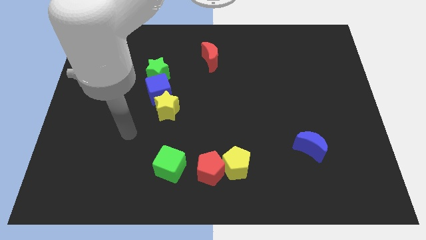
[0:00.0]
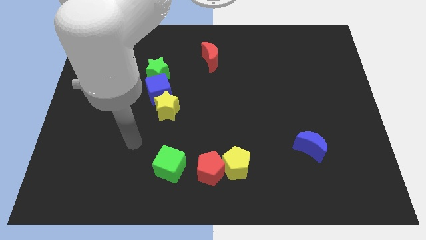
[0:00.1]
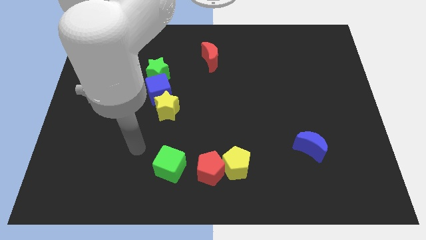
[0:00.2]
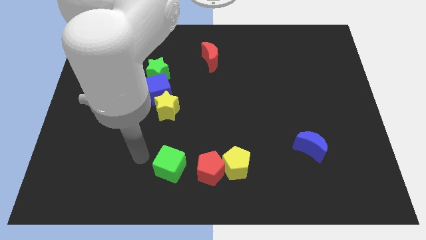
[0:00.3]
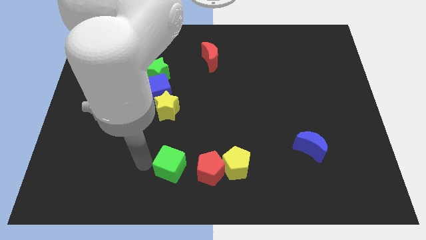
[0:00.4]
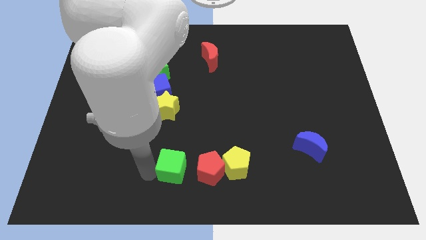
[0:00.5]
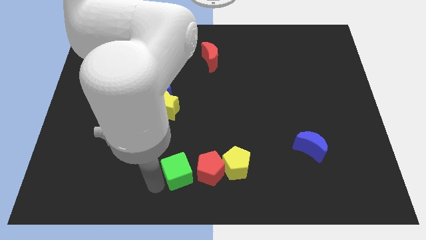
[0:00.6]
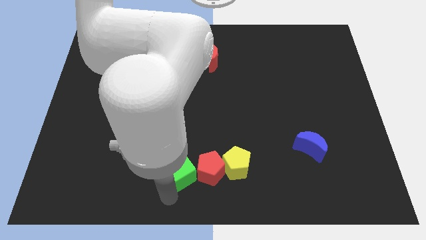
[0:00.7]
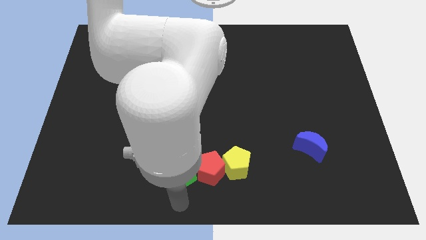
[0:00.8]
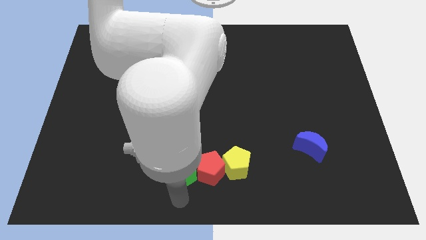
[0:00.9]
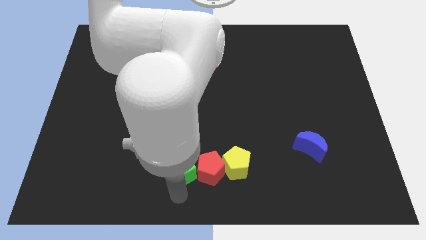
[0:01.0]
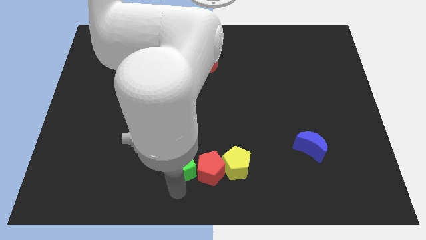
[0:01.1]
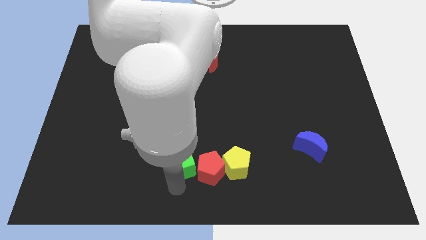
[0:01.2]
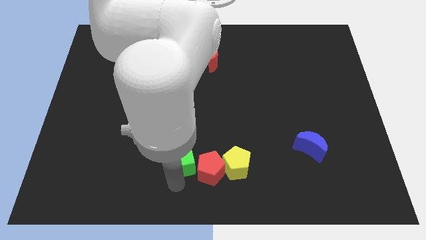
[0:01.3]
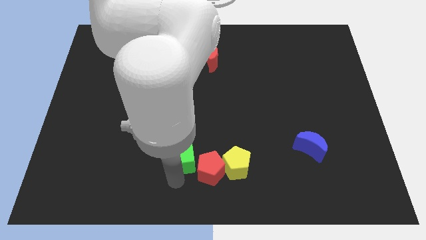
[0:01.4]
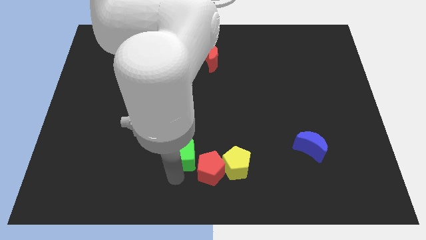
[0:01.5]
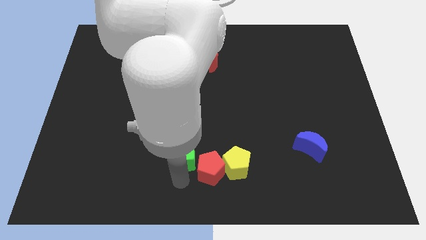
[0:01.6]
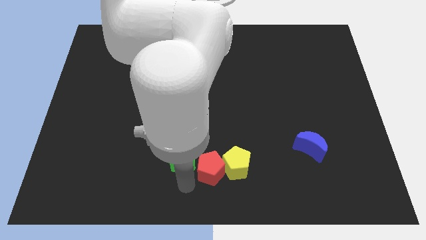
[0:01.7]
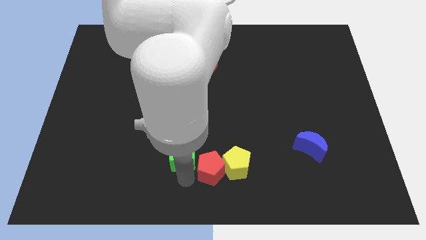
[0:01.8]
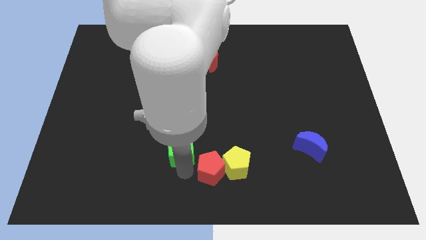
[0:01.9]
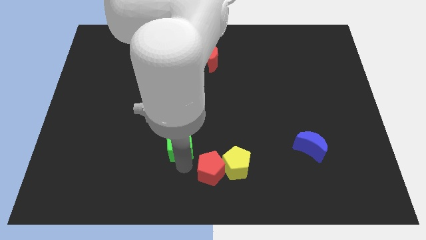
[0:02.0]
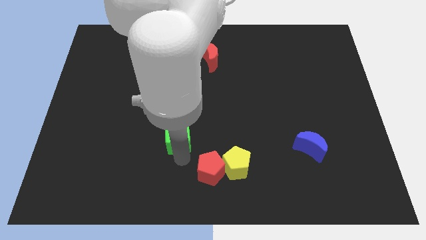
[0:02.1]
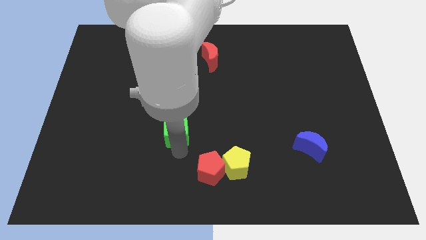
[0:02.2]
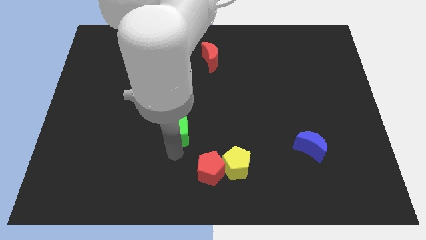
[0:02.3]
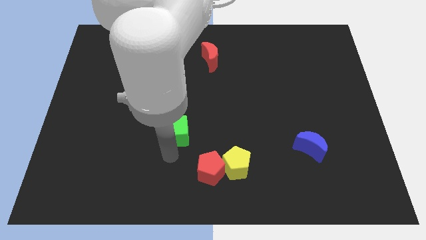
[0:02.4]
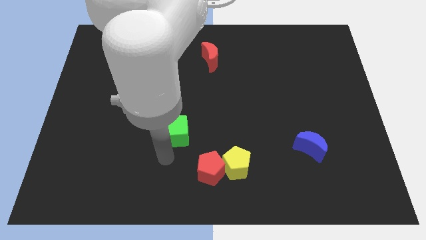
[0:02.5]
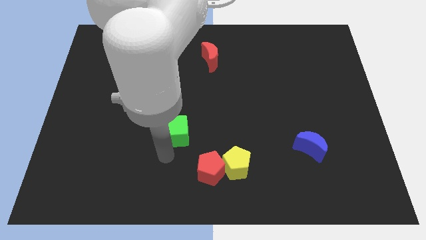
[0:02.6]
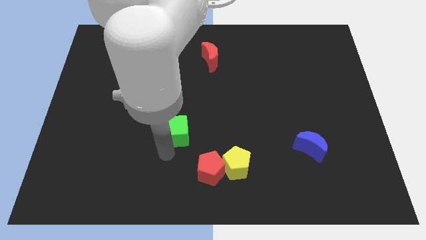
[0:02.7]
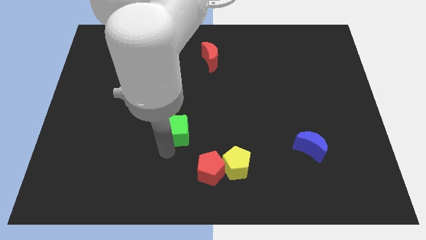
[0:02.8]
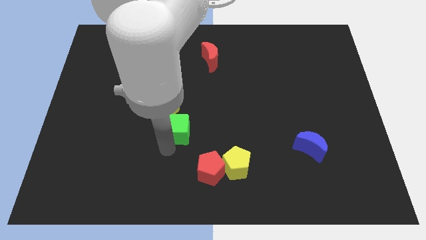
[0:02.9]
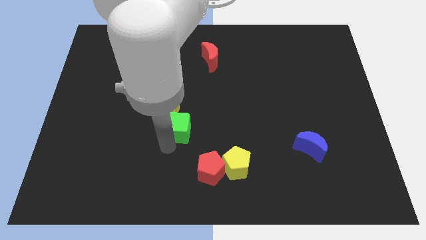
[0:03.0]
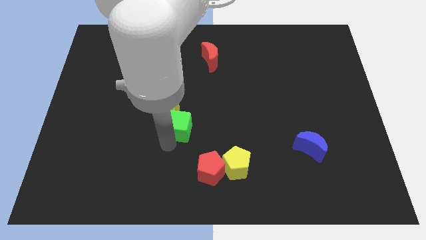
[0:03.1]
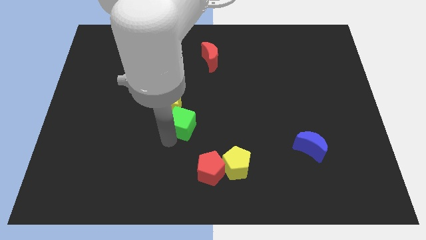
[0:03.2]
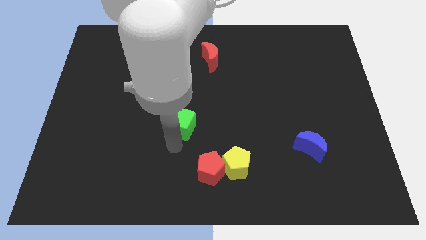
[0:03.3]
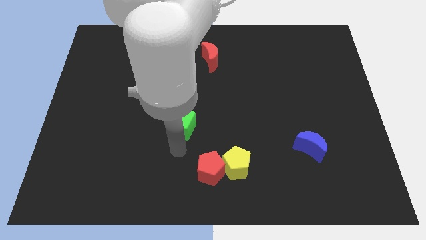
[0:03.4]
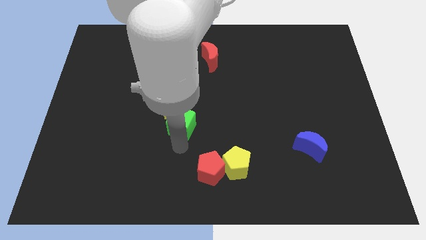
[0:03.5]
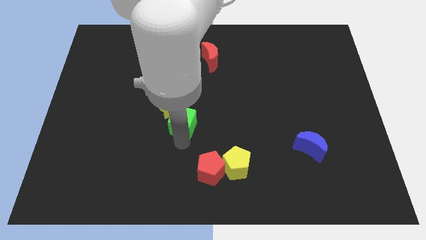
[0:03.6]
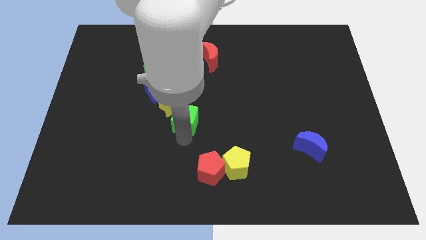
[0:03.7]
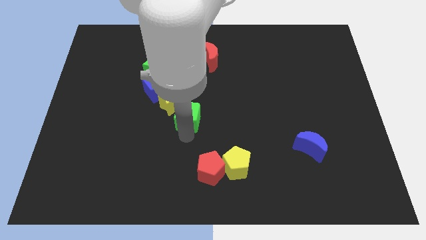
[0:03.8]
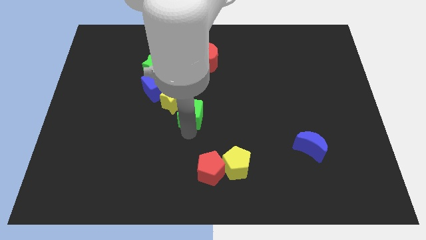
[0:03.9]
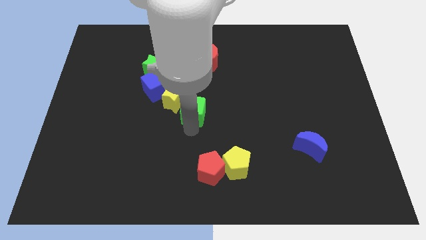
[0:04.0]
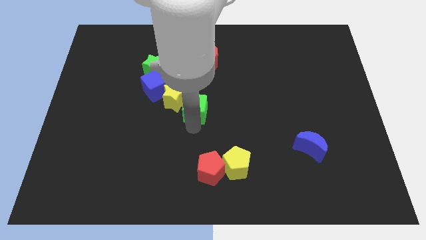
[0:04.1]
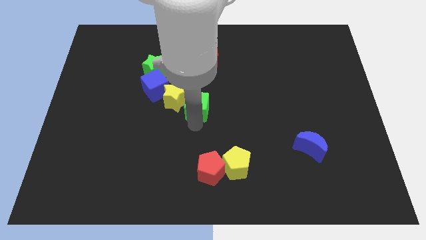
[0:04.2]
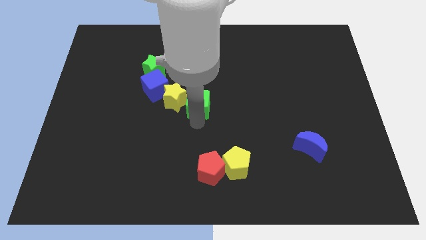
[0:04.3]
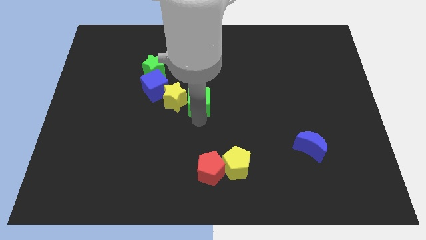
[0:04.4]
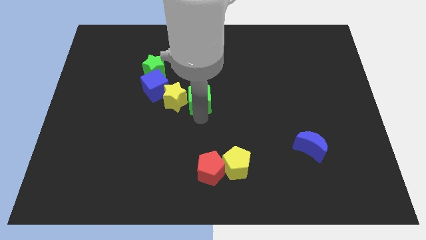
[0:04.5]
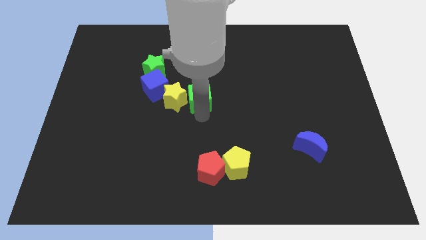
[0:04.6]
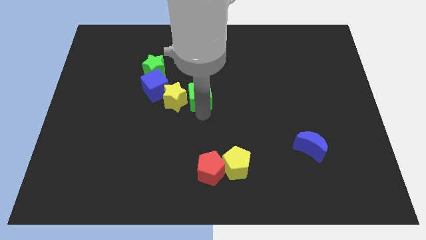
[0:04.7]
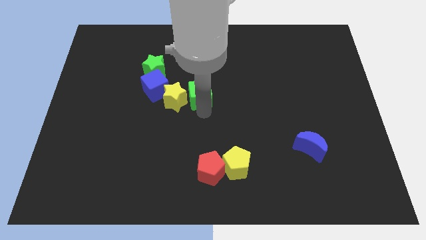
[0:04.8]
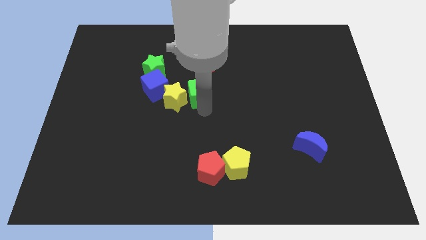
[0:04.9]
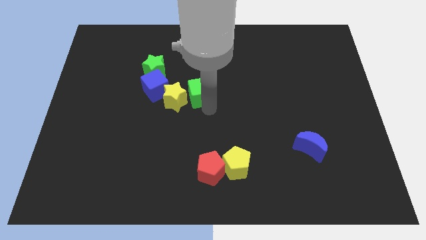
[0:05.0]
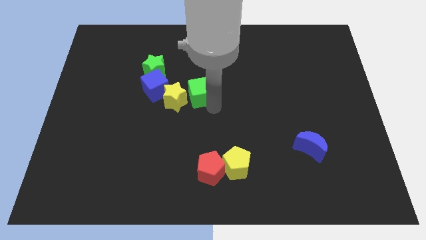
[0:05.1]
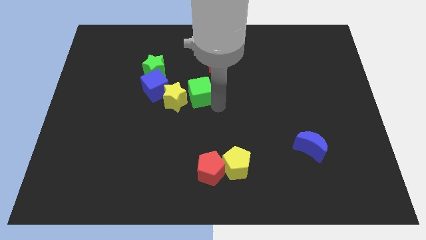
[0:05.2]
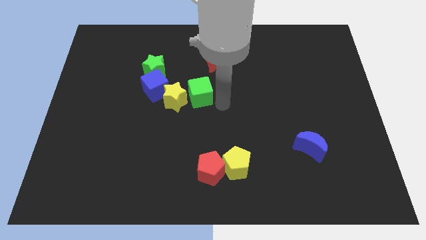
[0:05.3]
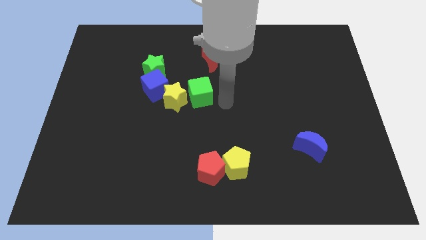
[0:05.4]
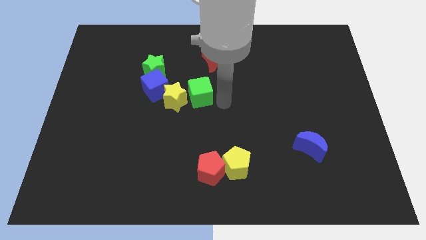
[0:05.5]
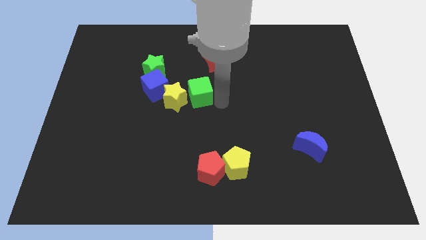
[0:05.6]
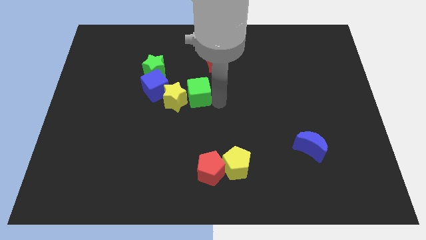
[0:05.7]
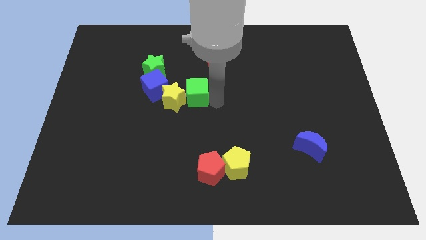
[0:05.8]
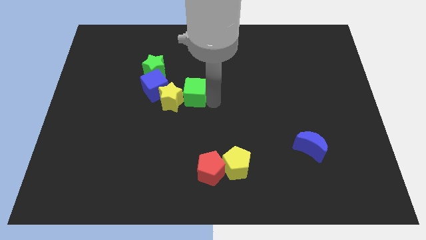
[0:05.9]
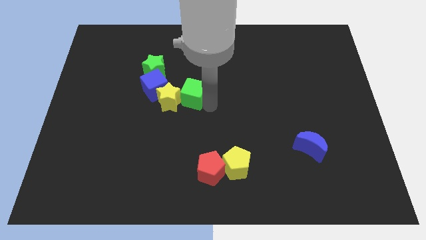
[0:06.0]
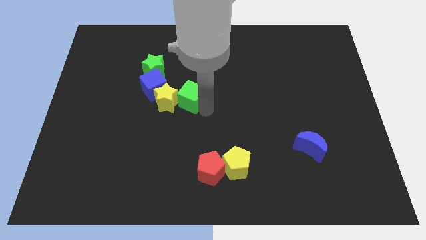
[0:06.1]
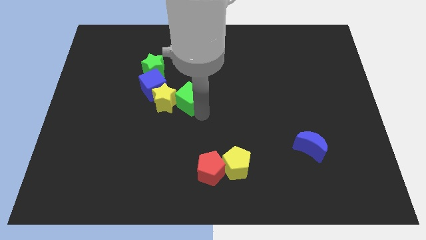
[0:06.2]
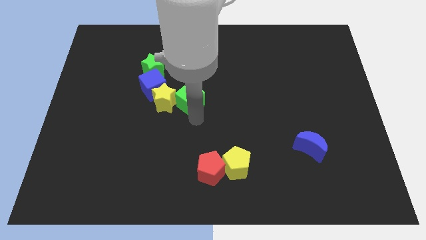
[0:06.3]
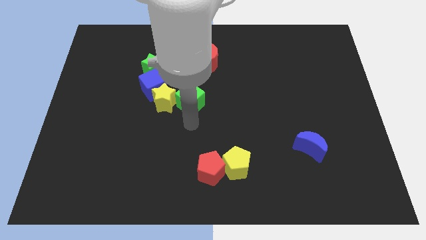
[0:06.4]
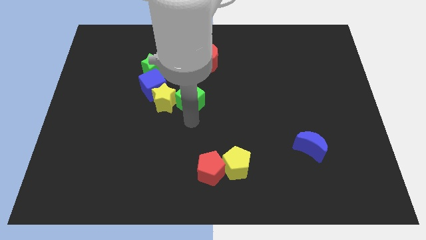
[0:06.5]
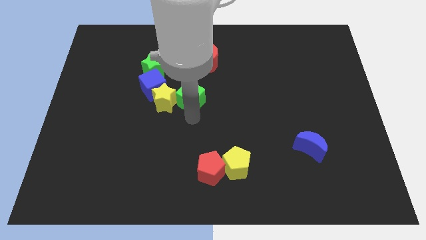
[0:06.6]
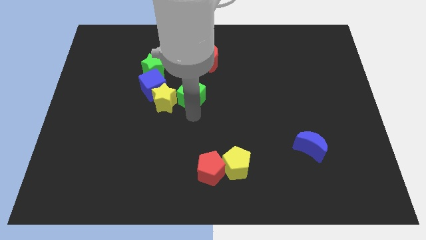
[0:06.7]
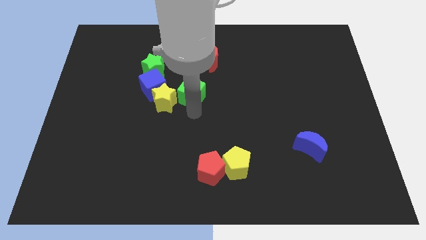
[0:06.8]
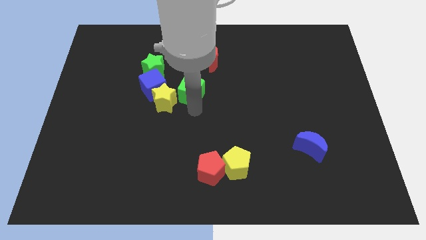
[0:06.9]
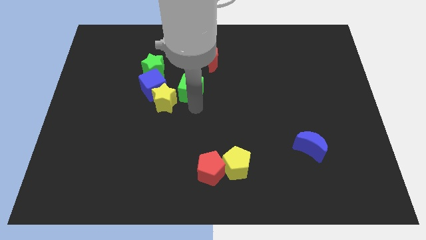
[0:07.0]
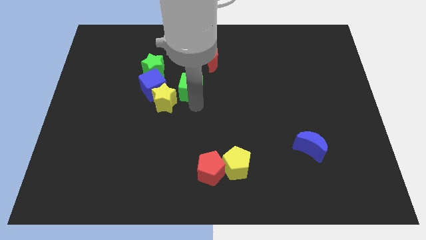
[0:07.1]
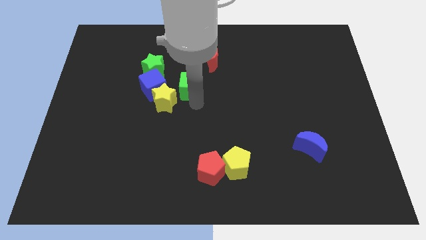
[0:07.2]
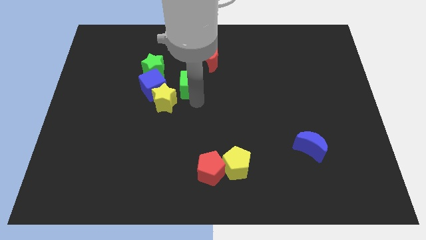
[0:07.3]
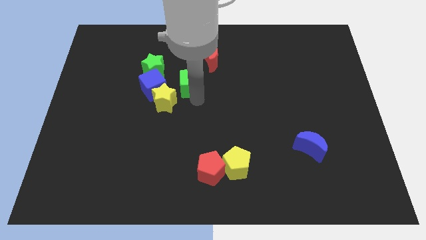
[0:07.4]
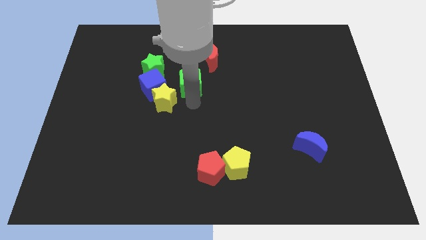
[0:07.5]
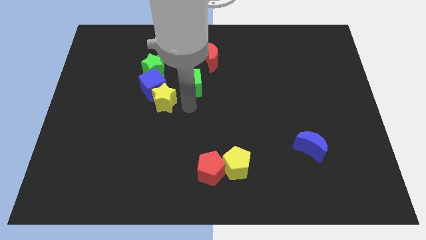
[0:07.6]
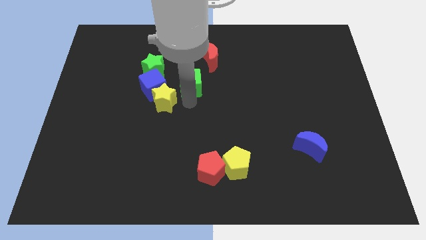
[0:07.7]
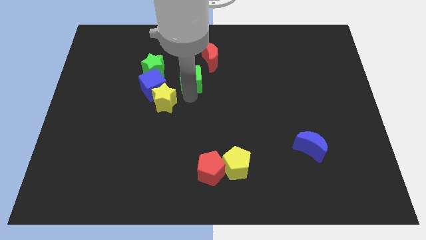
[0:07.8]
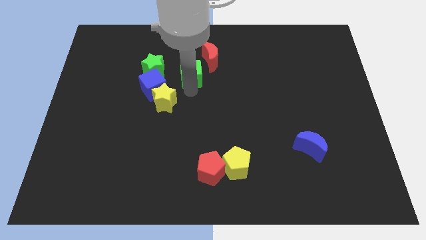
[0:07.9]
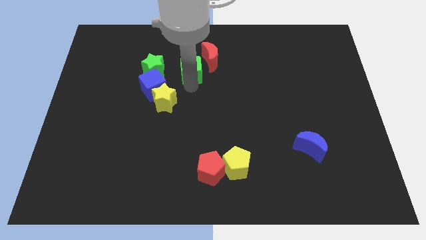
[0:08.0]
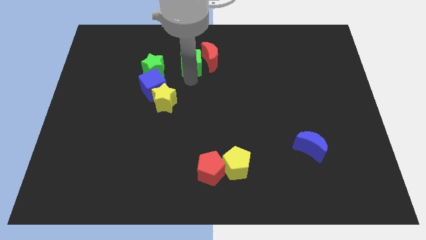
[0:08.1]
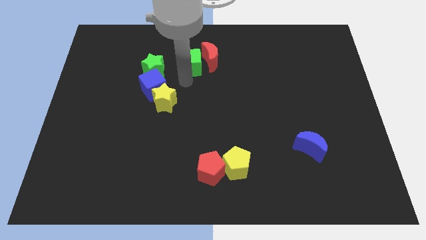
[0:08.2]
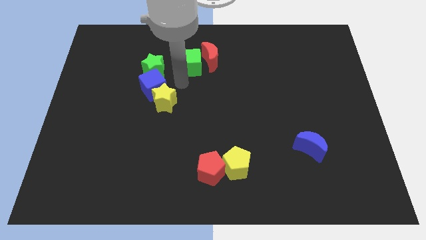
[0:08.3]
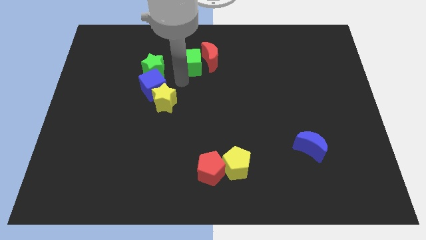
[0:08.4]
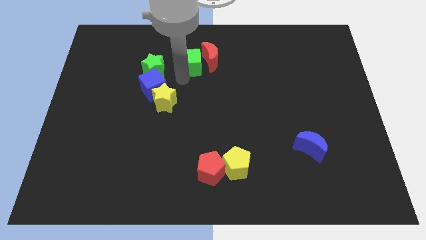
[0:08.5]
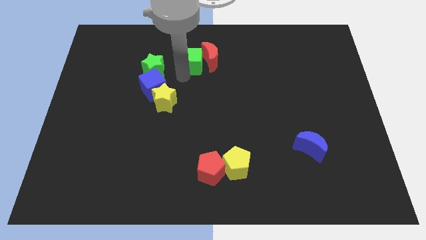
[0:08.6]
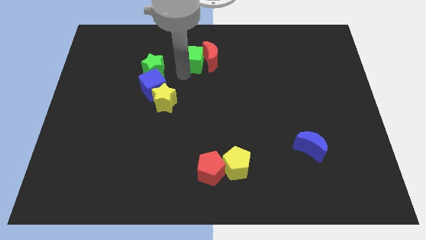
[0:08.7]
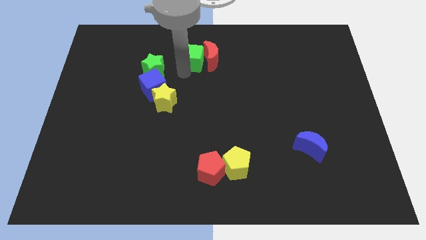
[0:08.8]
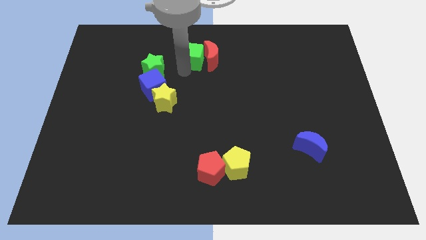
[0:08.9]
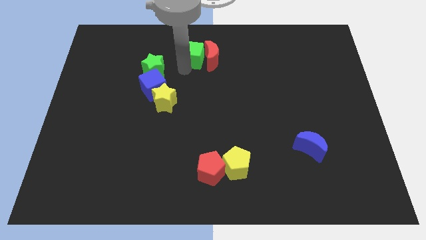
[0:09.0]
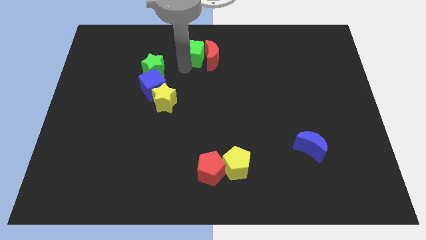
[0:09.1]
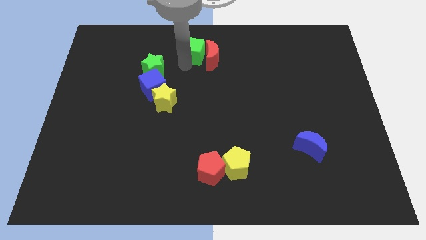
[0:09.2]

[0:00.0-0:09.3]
push the green cube to the top side
